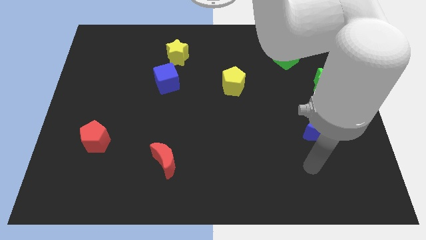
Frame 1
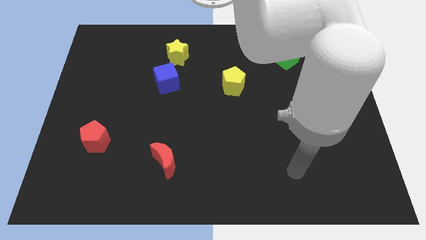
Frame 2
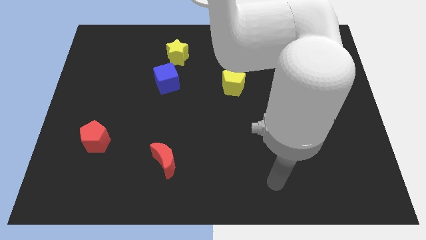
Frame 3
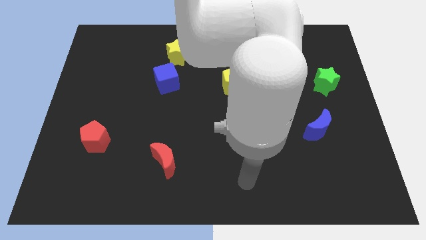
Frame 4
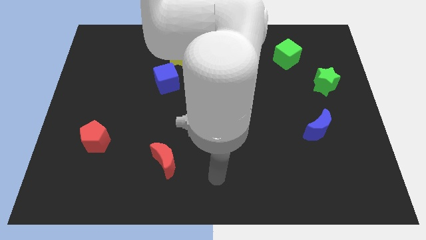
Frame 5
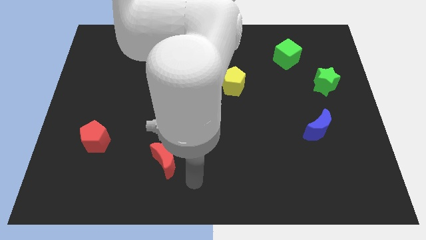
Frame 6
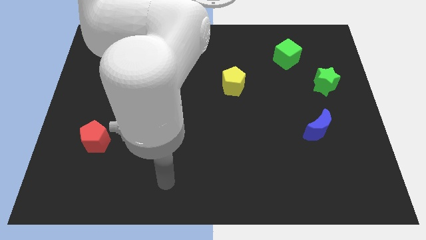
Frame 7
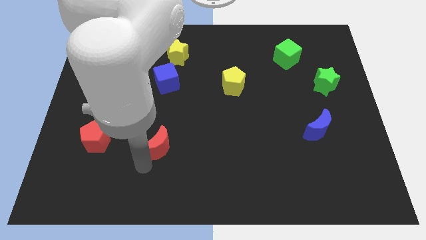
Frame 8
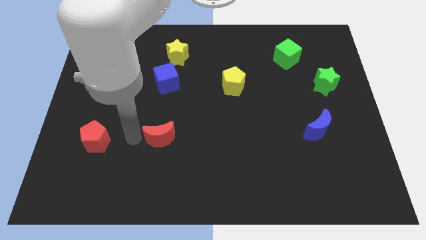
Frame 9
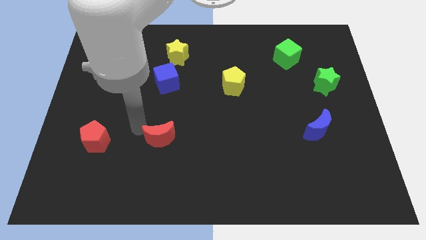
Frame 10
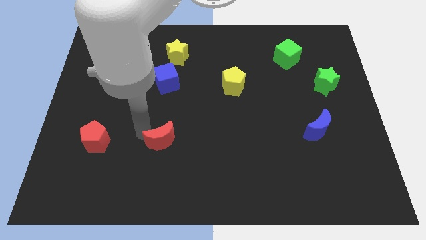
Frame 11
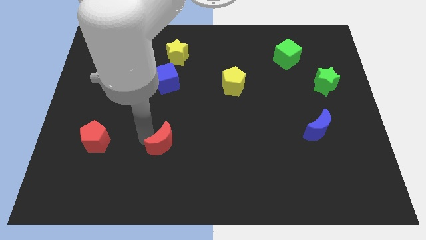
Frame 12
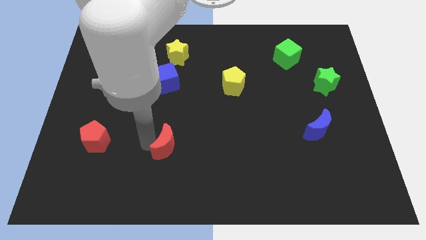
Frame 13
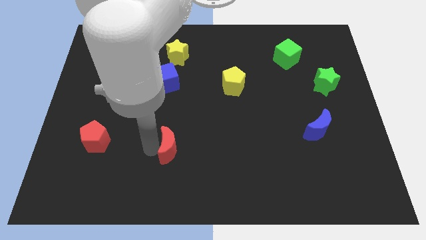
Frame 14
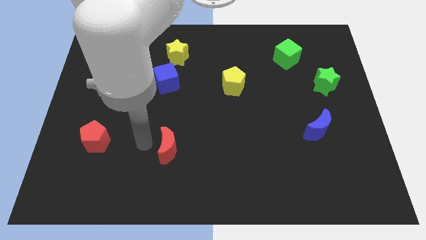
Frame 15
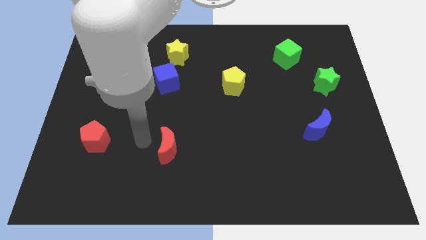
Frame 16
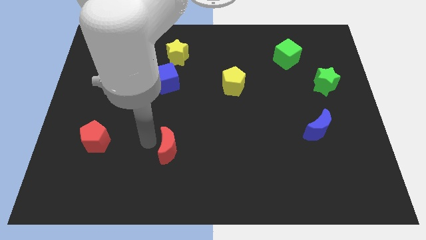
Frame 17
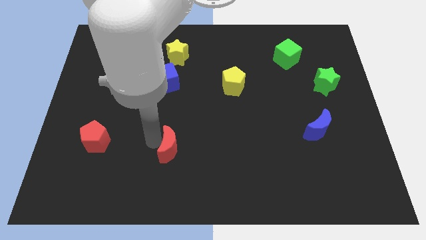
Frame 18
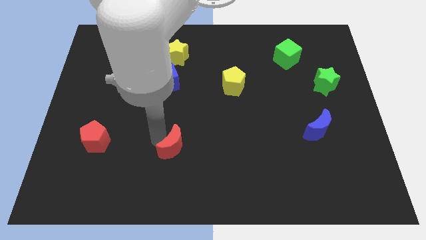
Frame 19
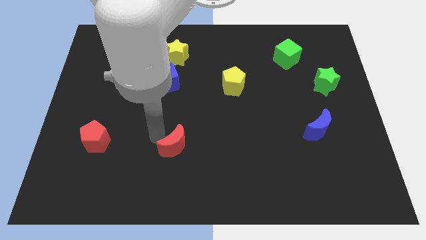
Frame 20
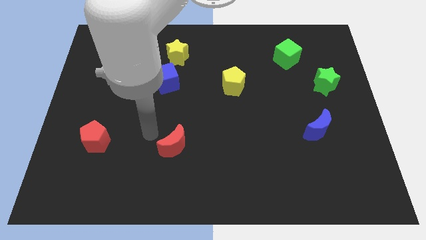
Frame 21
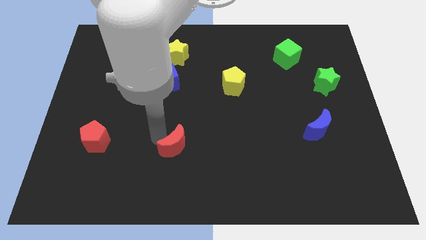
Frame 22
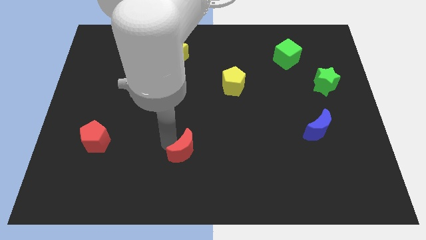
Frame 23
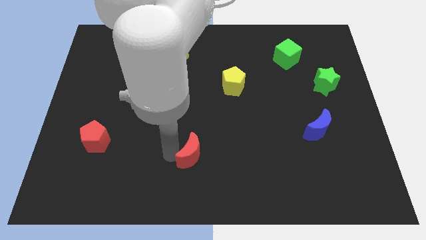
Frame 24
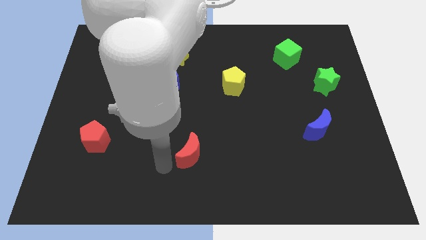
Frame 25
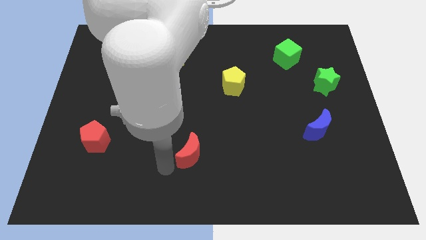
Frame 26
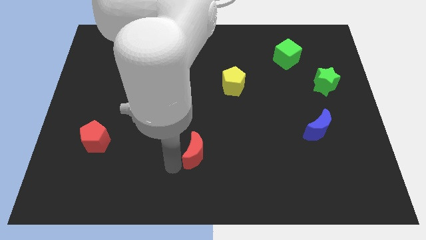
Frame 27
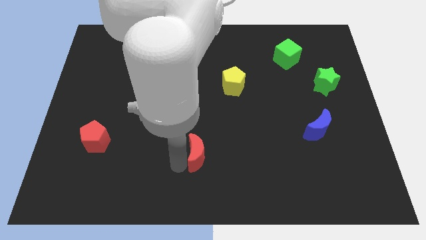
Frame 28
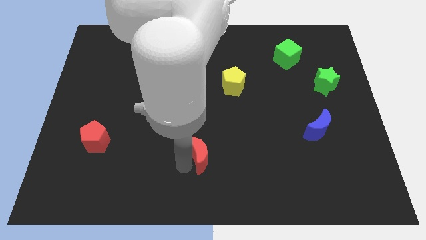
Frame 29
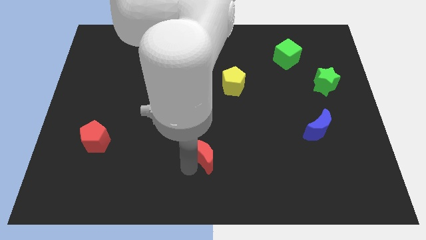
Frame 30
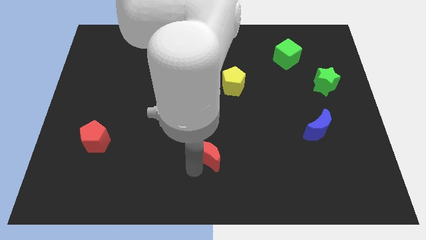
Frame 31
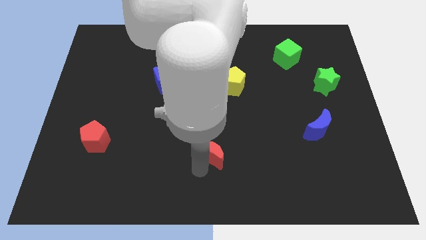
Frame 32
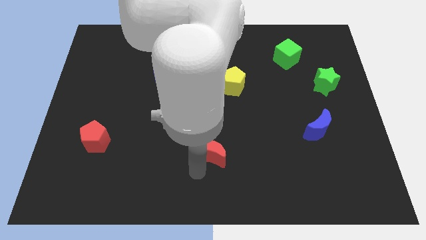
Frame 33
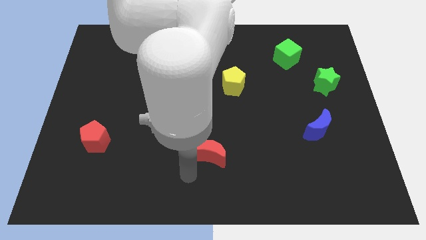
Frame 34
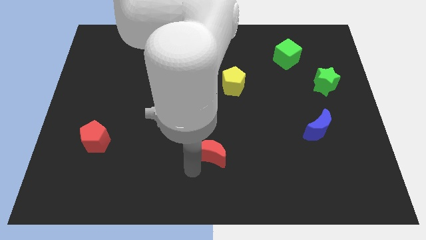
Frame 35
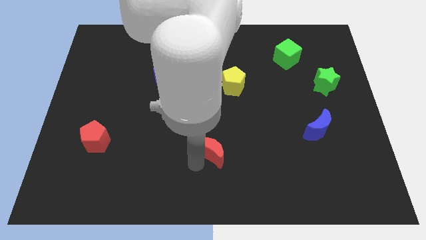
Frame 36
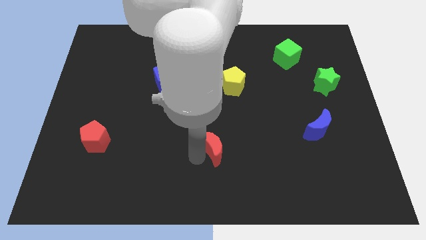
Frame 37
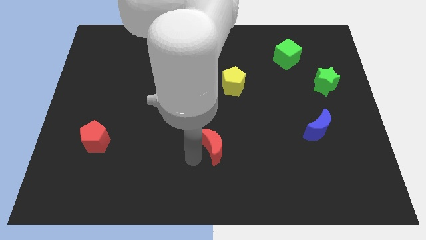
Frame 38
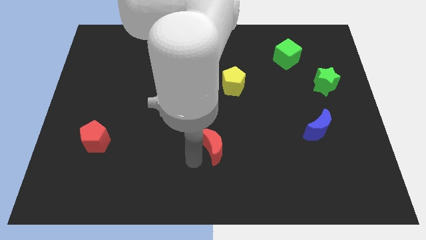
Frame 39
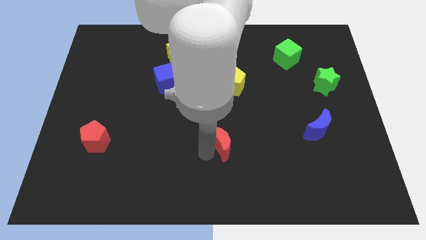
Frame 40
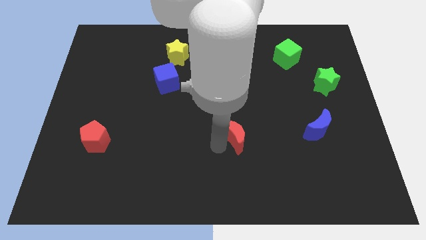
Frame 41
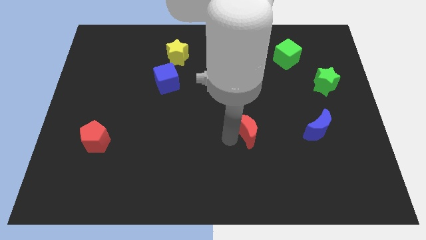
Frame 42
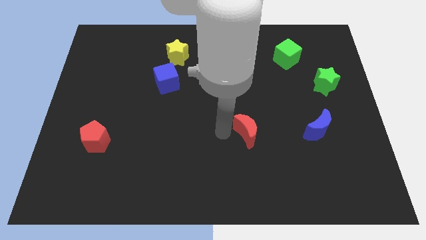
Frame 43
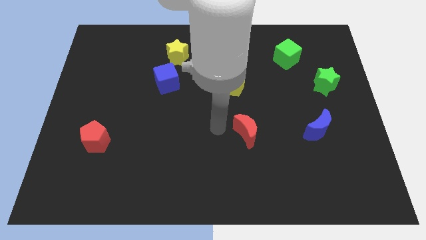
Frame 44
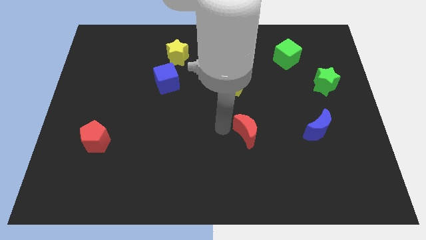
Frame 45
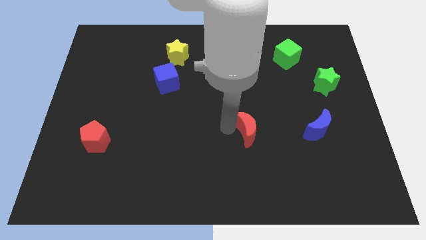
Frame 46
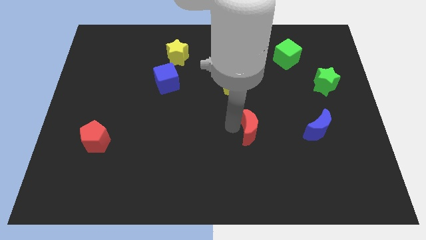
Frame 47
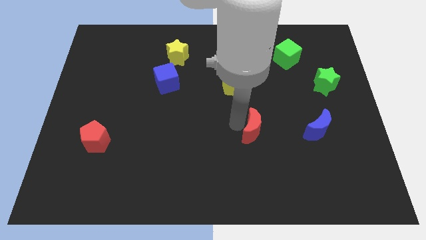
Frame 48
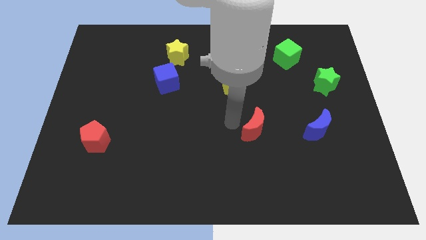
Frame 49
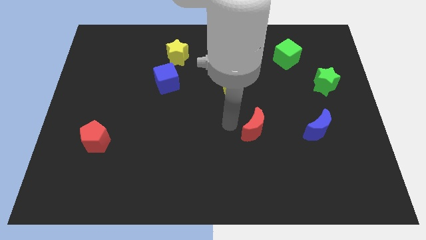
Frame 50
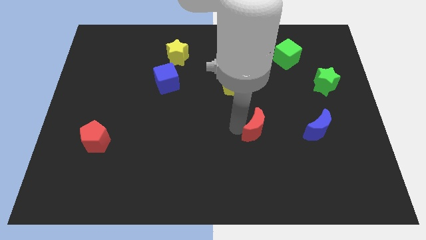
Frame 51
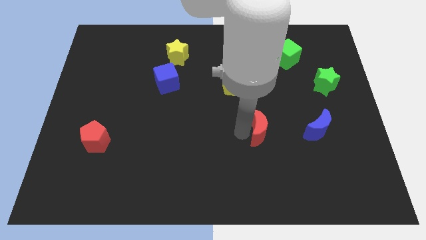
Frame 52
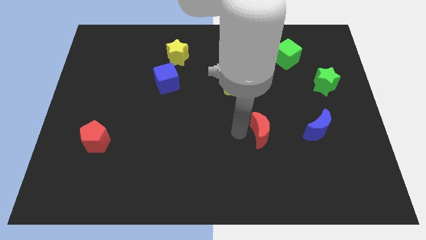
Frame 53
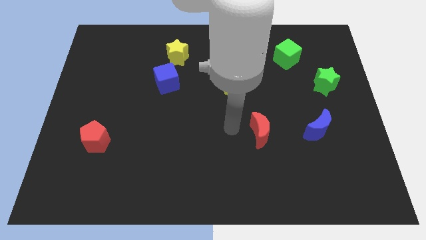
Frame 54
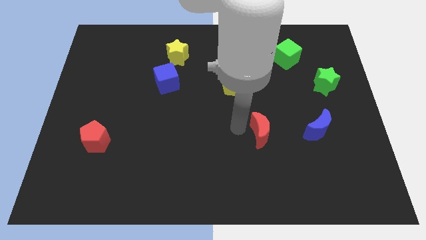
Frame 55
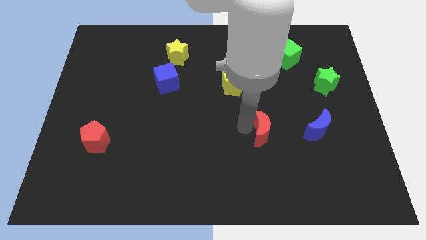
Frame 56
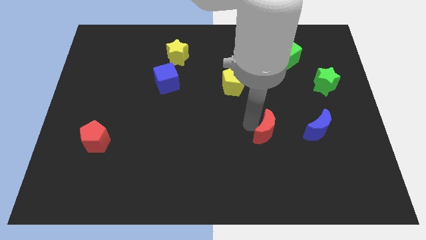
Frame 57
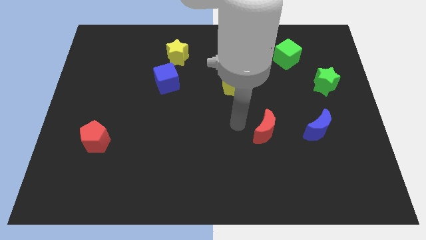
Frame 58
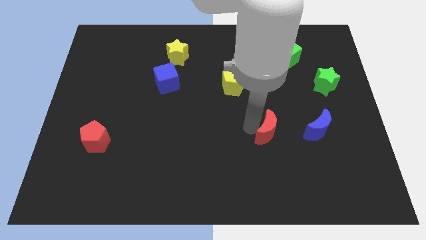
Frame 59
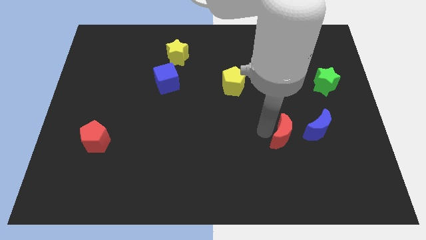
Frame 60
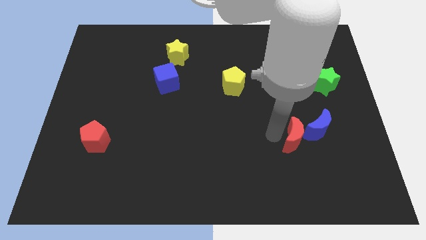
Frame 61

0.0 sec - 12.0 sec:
move the red moon to the blue moon

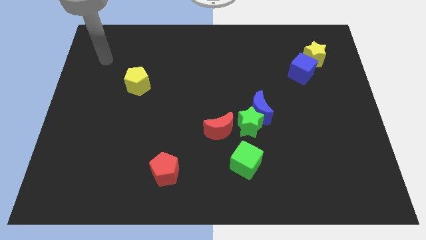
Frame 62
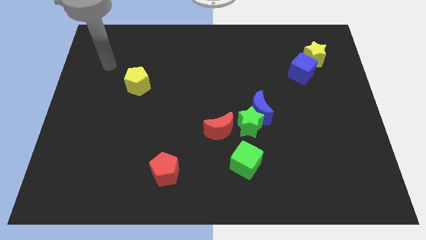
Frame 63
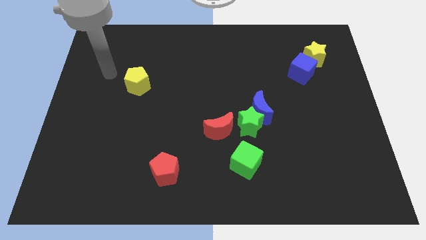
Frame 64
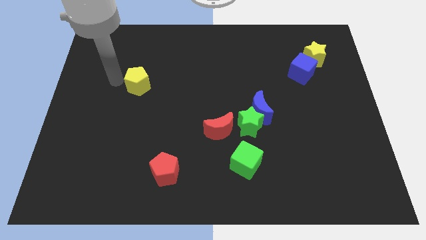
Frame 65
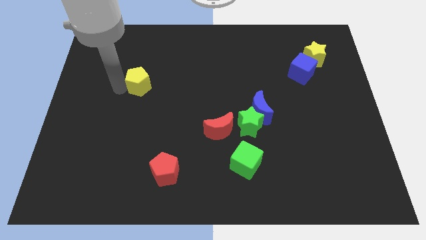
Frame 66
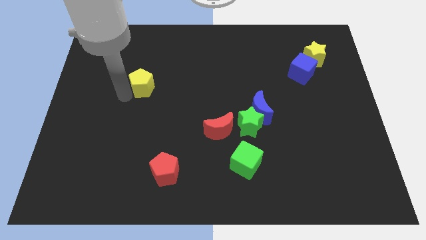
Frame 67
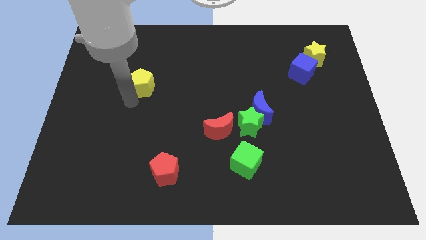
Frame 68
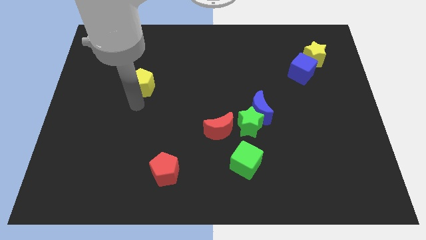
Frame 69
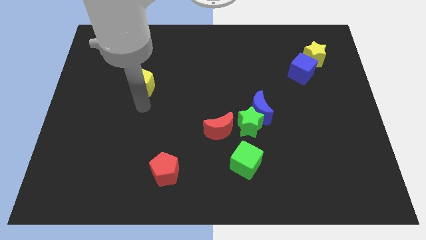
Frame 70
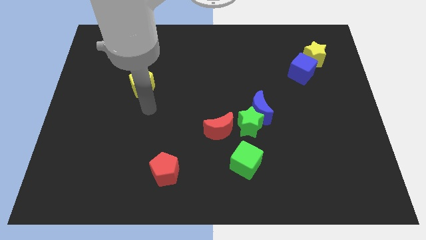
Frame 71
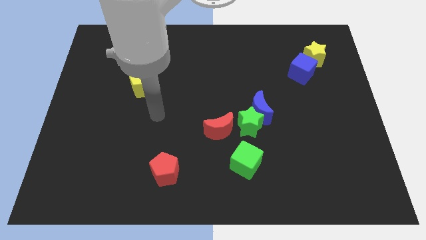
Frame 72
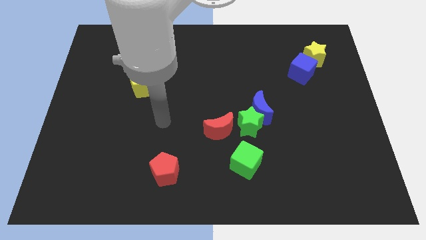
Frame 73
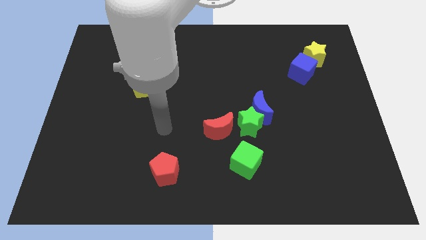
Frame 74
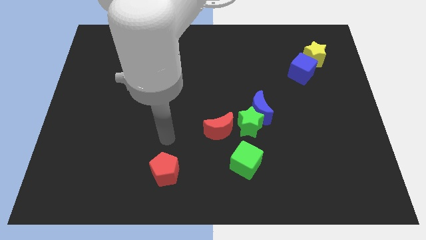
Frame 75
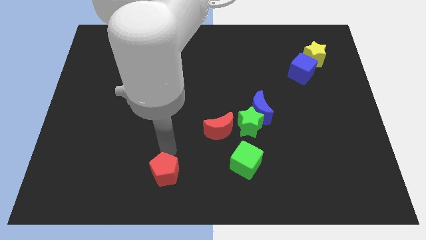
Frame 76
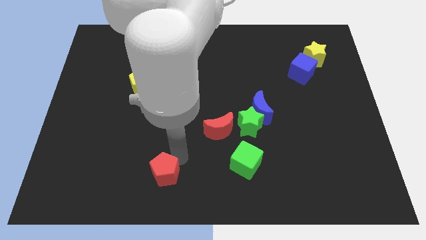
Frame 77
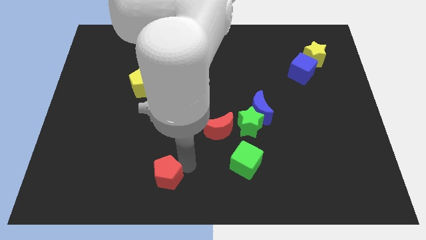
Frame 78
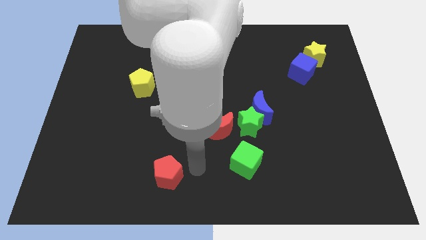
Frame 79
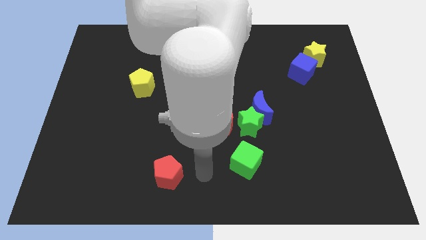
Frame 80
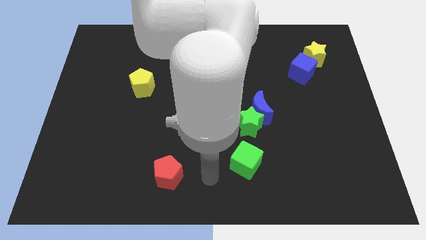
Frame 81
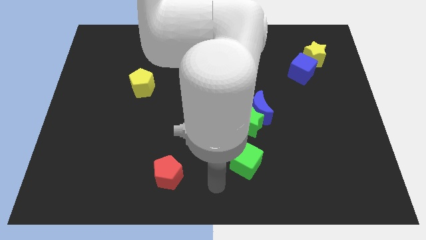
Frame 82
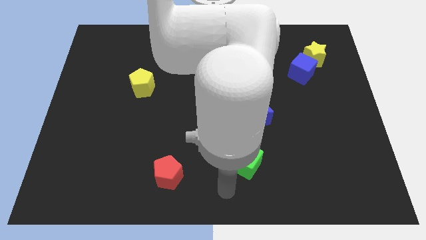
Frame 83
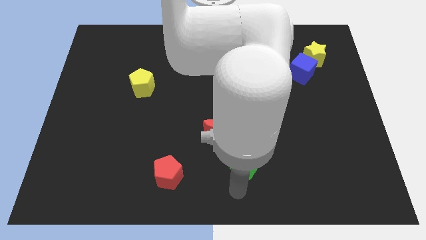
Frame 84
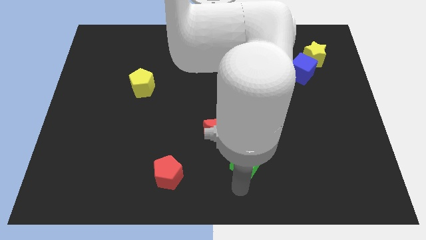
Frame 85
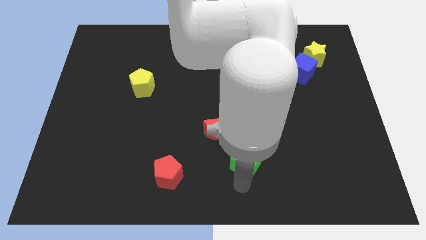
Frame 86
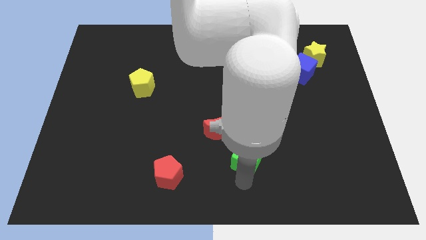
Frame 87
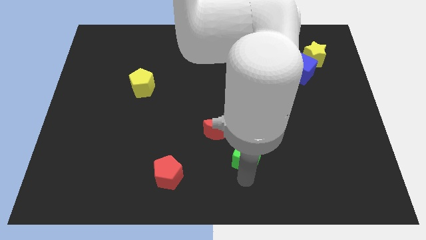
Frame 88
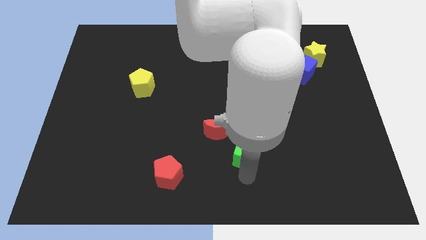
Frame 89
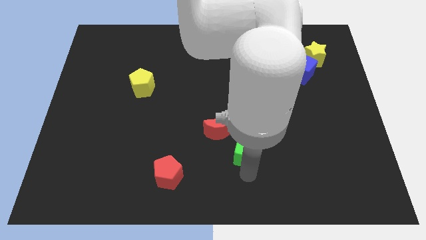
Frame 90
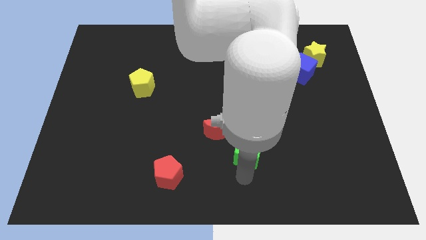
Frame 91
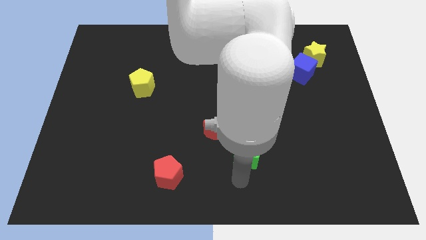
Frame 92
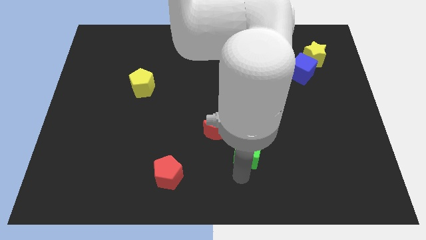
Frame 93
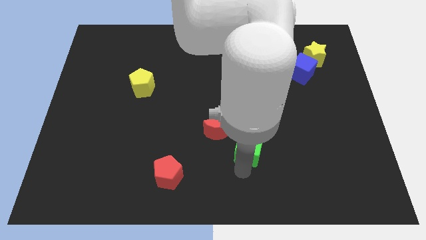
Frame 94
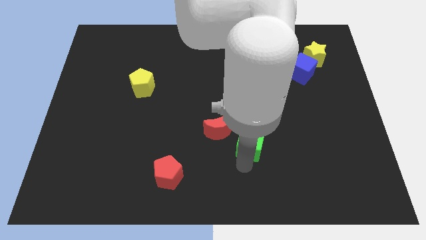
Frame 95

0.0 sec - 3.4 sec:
push the green cube close to the green star
